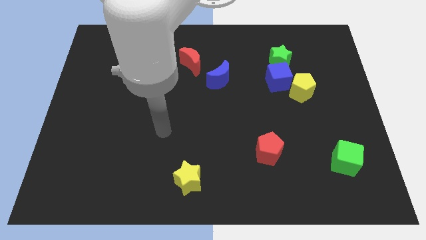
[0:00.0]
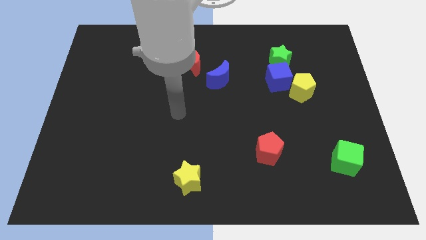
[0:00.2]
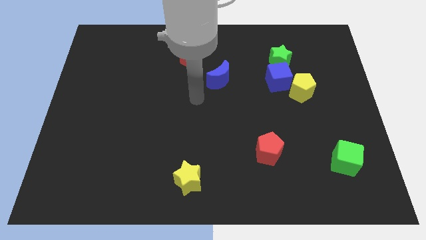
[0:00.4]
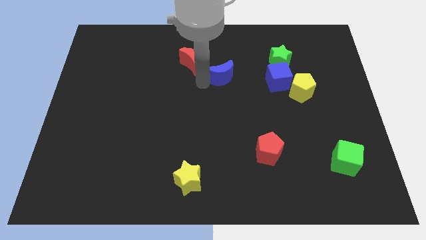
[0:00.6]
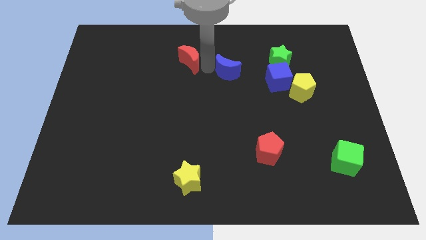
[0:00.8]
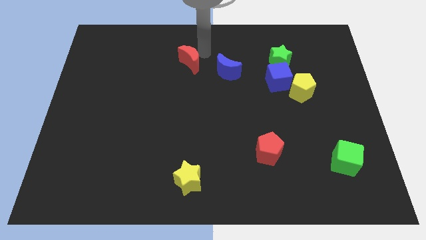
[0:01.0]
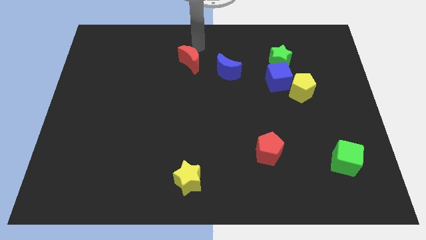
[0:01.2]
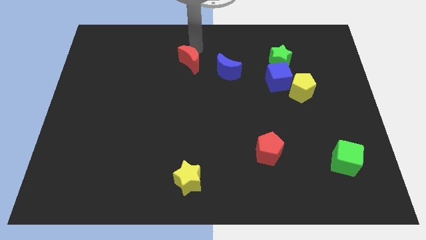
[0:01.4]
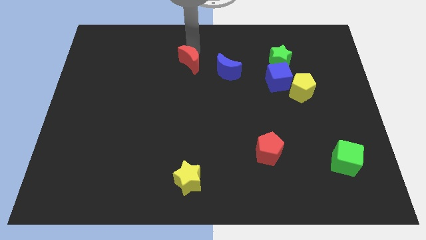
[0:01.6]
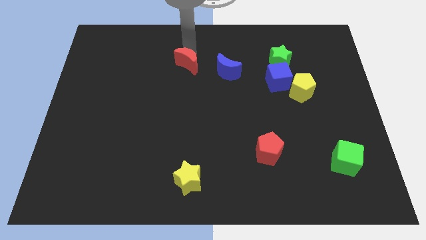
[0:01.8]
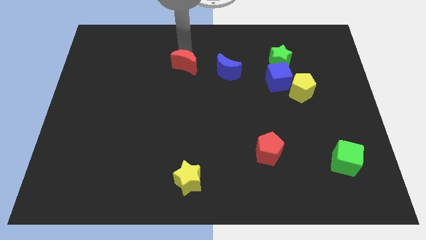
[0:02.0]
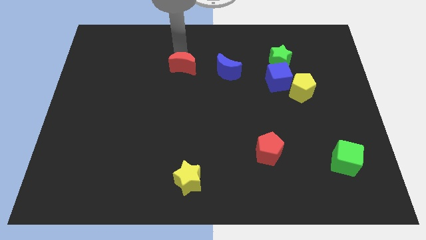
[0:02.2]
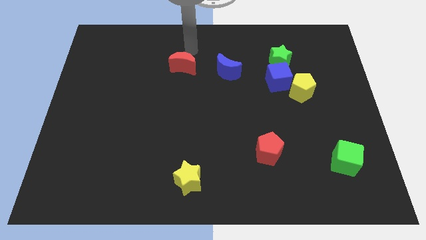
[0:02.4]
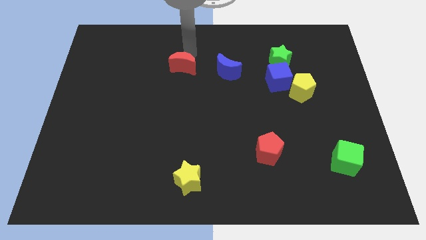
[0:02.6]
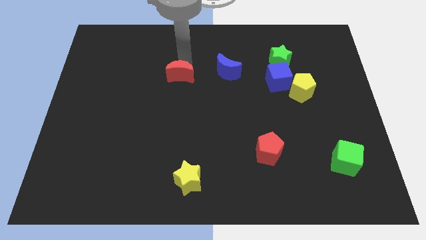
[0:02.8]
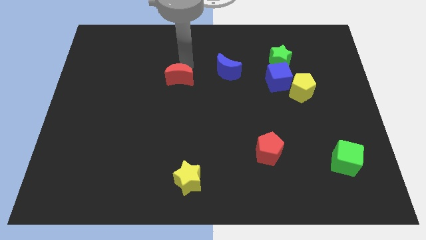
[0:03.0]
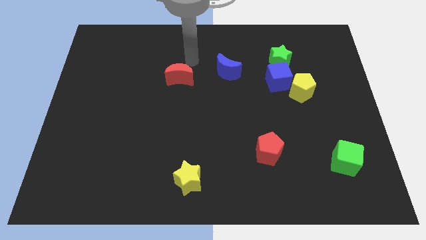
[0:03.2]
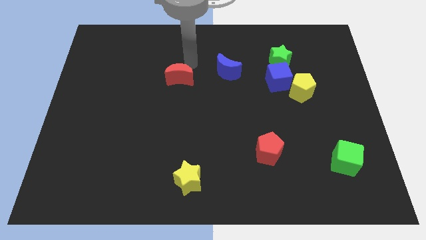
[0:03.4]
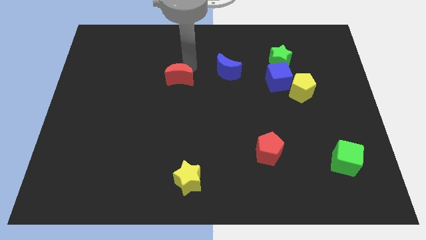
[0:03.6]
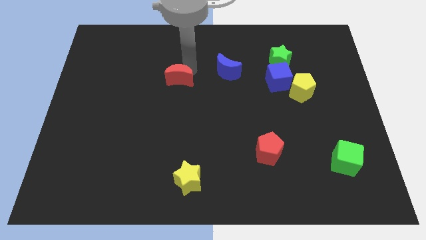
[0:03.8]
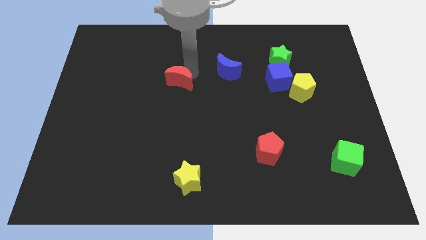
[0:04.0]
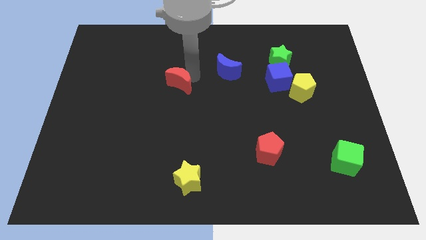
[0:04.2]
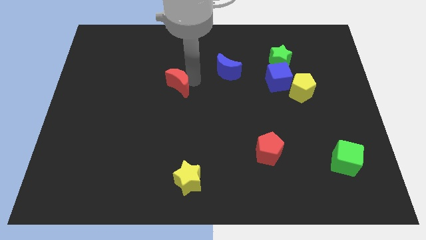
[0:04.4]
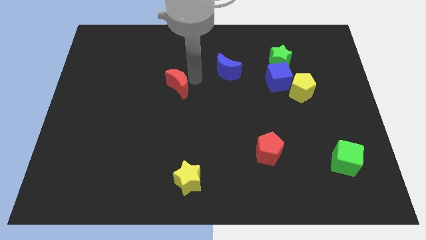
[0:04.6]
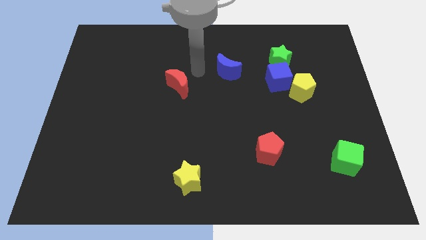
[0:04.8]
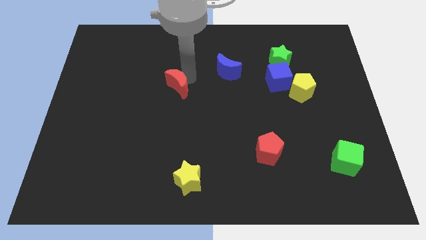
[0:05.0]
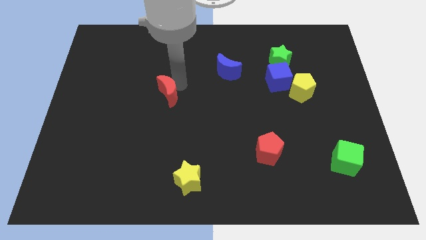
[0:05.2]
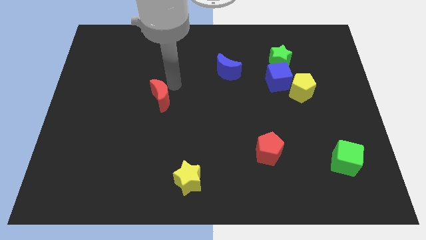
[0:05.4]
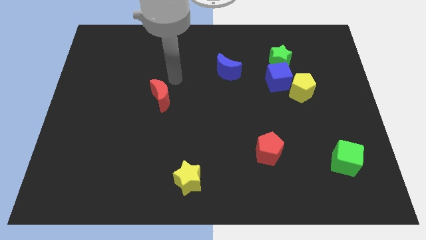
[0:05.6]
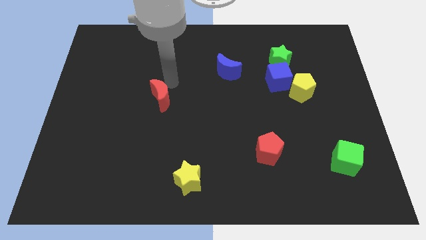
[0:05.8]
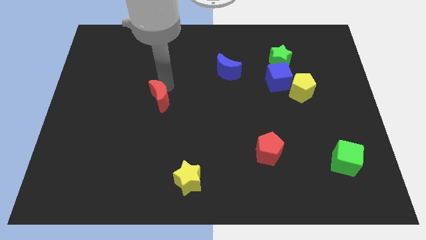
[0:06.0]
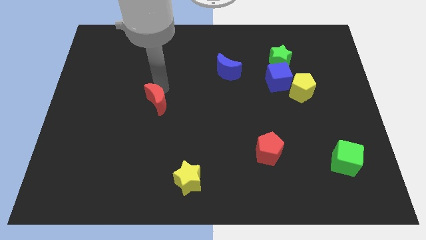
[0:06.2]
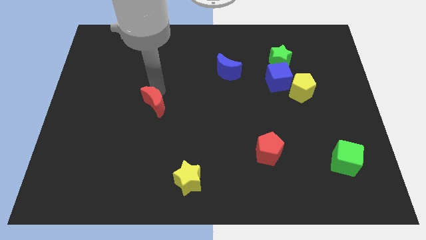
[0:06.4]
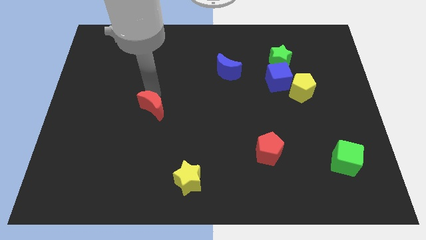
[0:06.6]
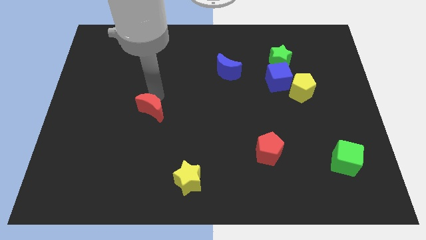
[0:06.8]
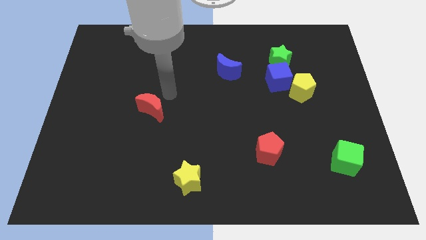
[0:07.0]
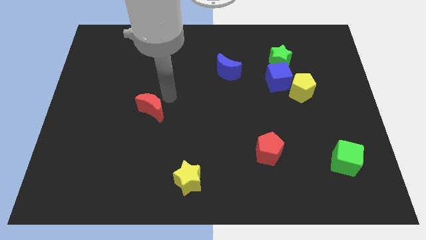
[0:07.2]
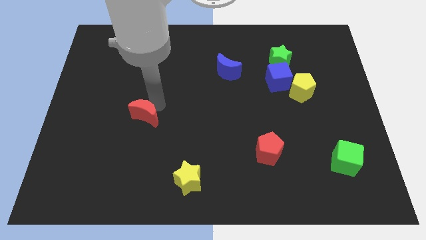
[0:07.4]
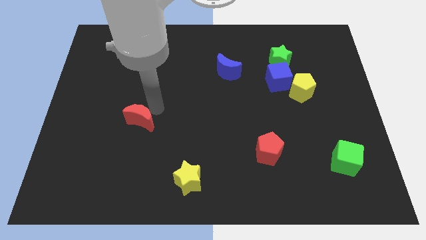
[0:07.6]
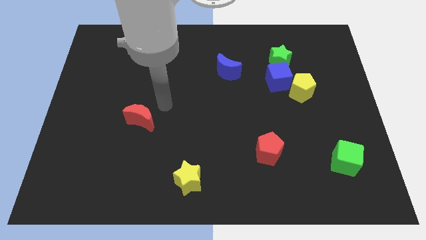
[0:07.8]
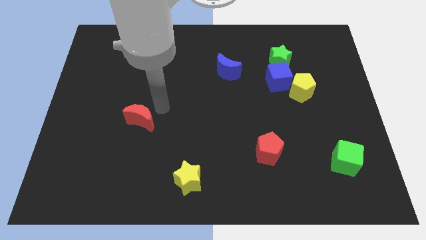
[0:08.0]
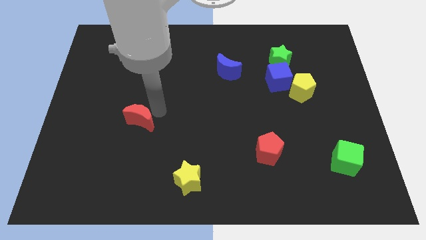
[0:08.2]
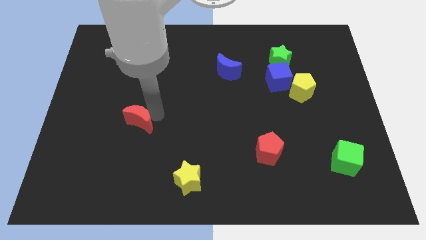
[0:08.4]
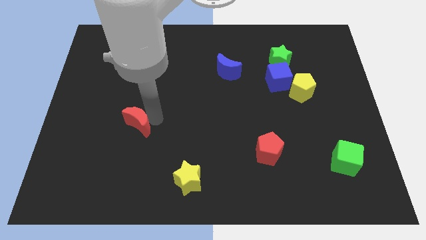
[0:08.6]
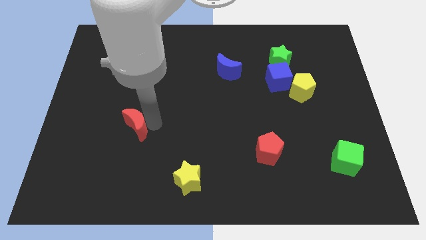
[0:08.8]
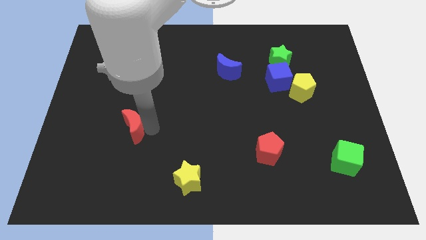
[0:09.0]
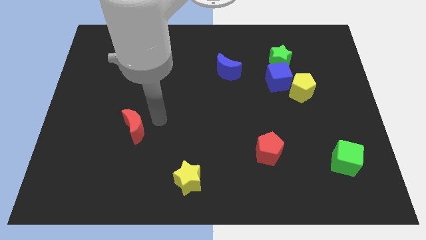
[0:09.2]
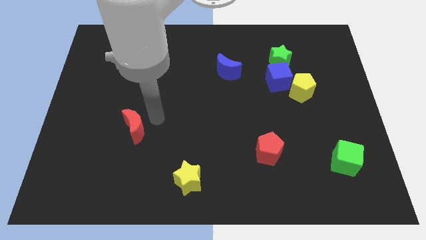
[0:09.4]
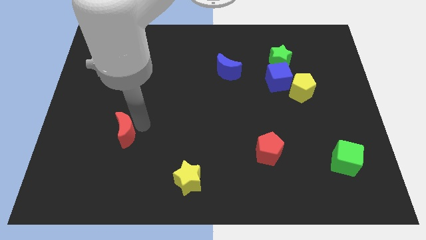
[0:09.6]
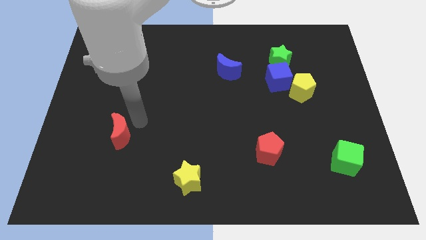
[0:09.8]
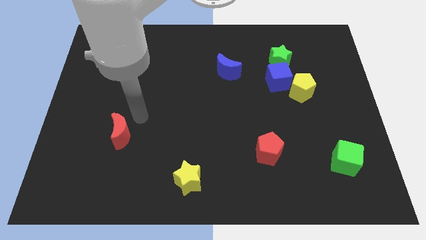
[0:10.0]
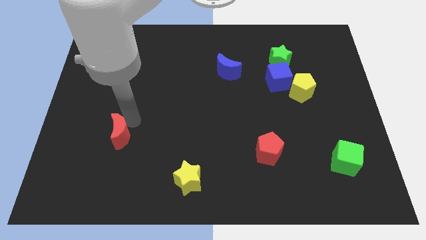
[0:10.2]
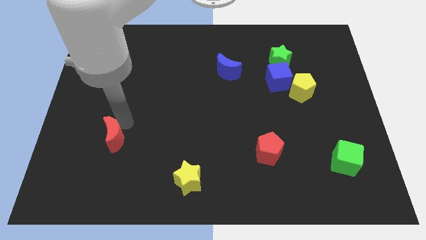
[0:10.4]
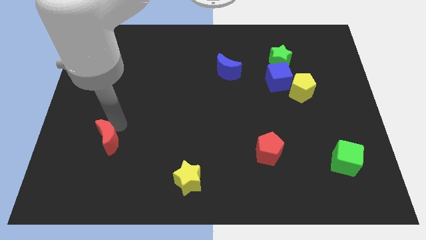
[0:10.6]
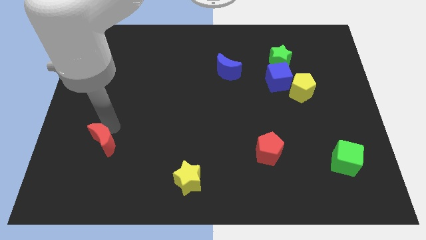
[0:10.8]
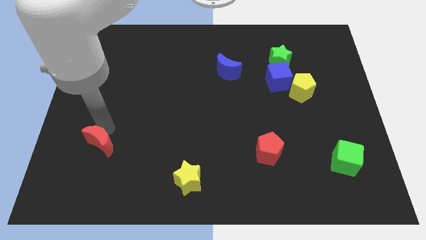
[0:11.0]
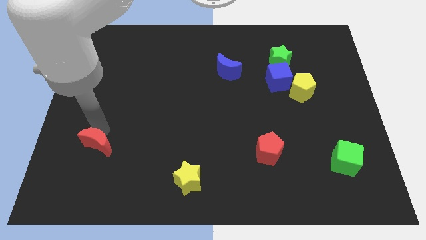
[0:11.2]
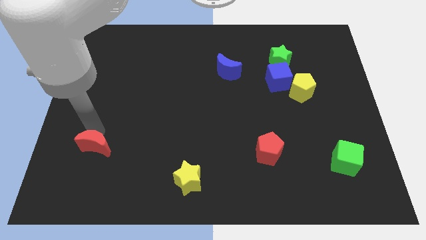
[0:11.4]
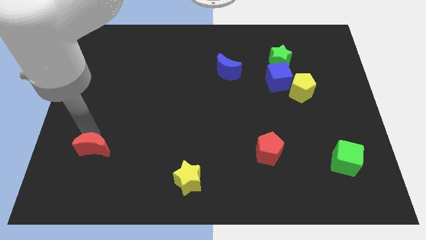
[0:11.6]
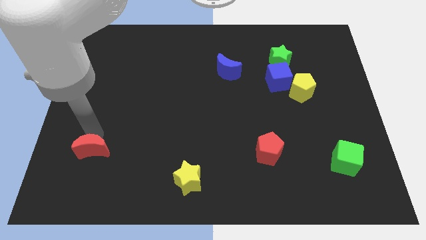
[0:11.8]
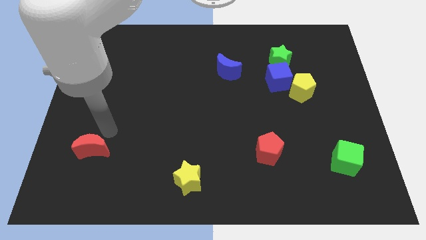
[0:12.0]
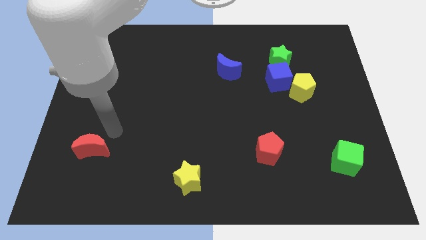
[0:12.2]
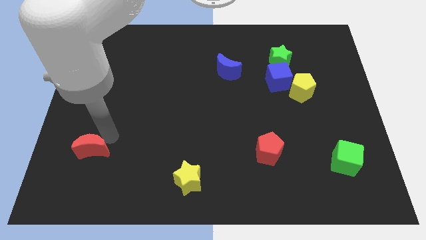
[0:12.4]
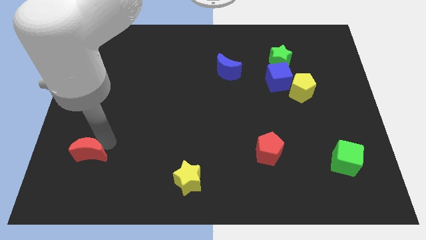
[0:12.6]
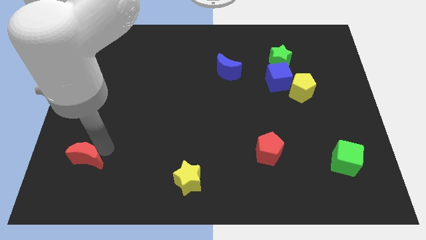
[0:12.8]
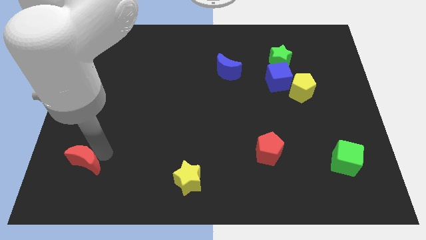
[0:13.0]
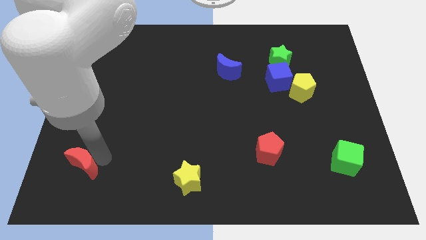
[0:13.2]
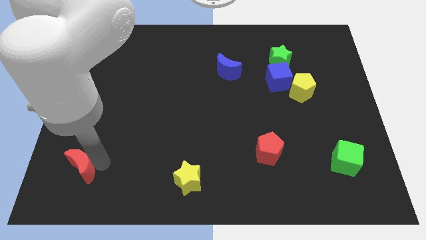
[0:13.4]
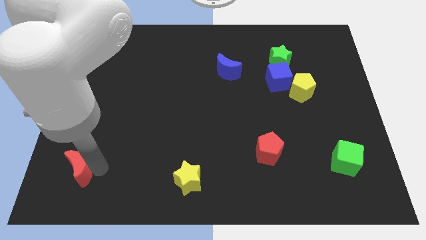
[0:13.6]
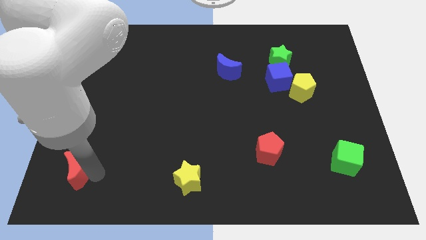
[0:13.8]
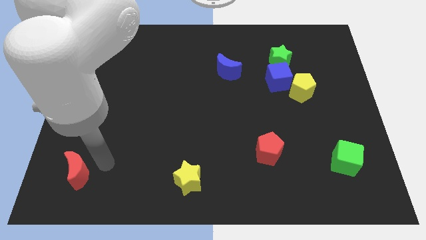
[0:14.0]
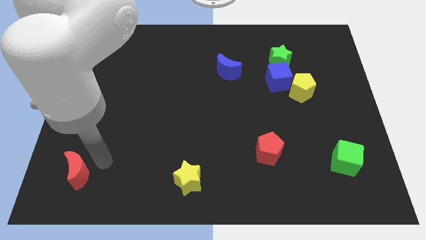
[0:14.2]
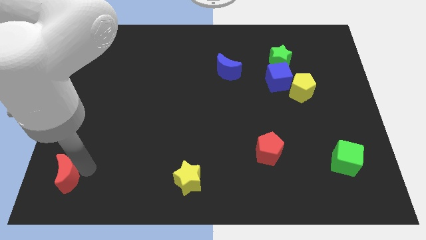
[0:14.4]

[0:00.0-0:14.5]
put the red moon to the bottom left of the board
